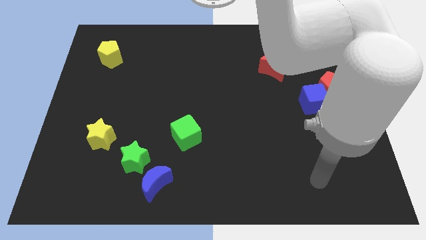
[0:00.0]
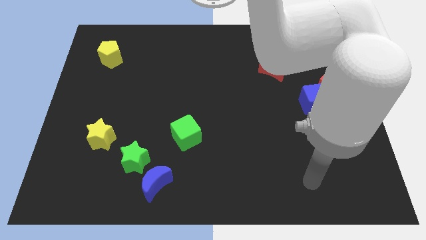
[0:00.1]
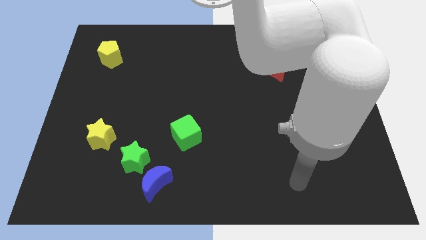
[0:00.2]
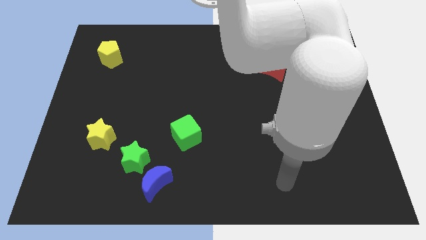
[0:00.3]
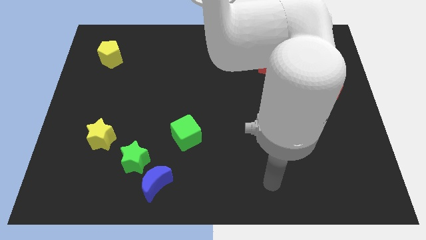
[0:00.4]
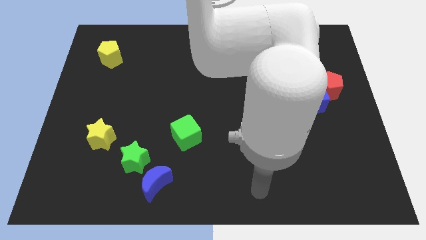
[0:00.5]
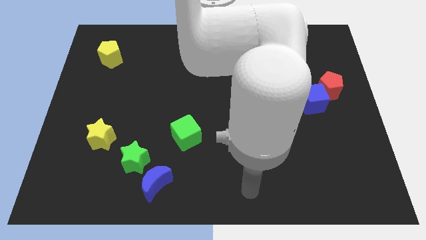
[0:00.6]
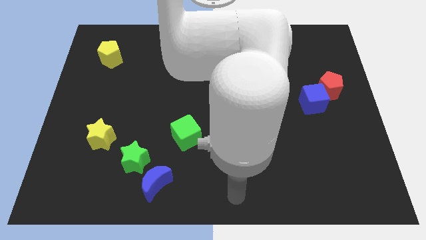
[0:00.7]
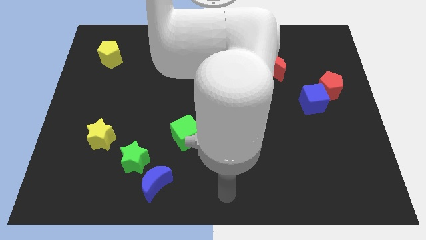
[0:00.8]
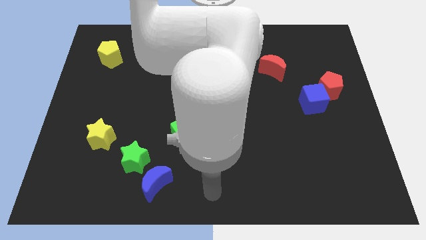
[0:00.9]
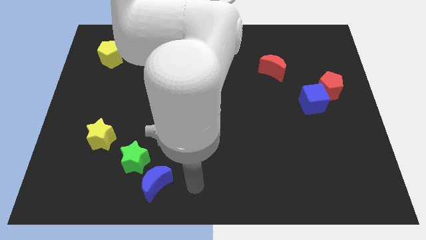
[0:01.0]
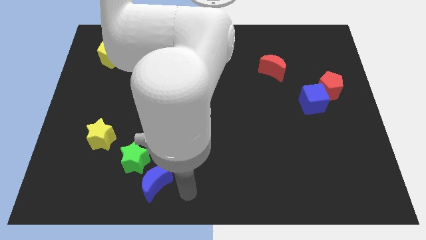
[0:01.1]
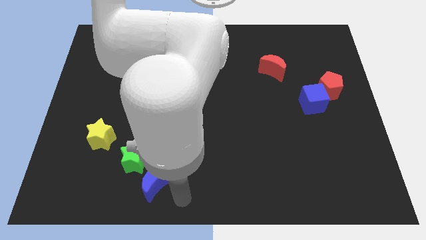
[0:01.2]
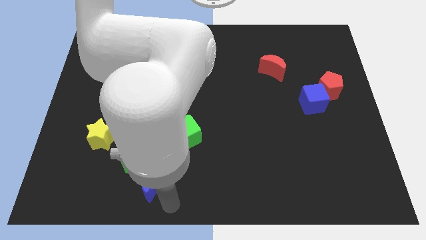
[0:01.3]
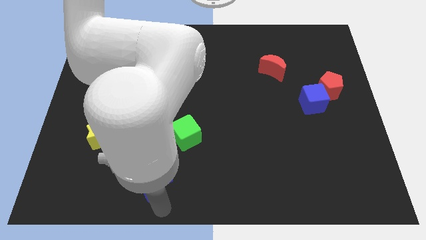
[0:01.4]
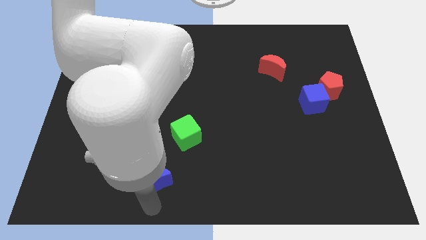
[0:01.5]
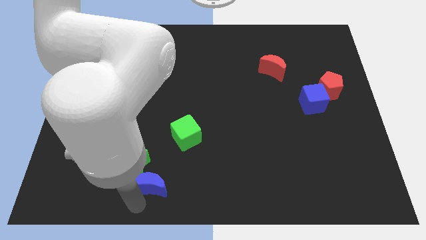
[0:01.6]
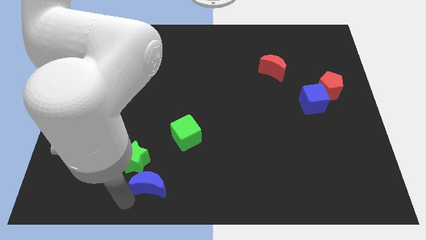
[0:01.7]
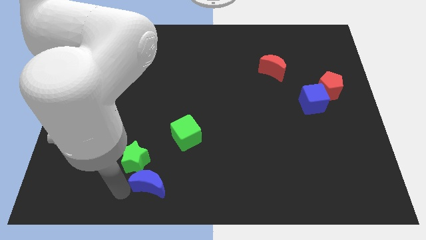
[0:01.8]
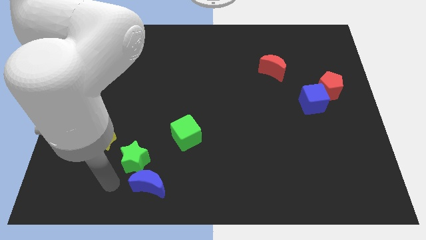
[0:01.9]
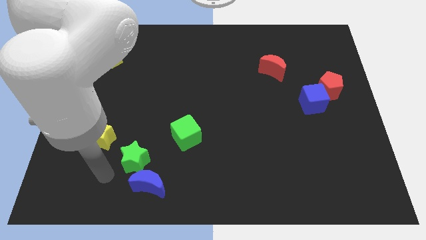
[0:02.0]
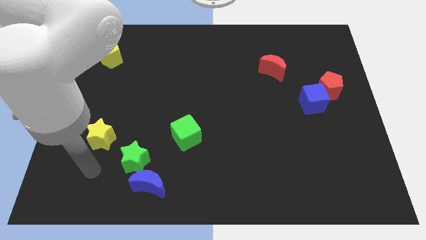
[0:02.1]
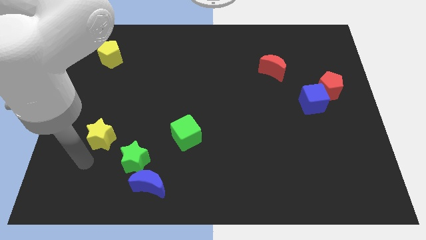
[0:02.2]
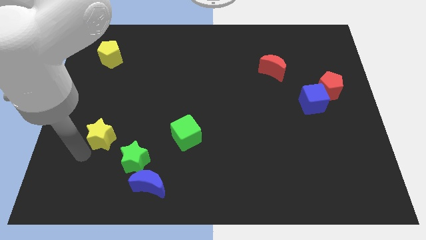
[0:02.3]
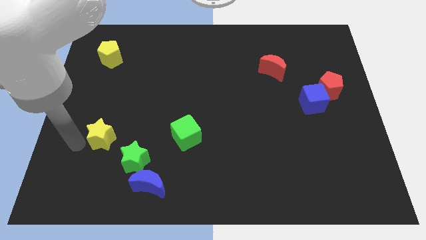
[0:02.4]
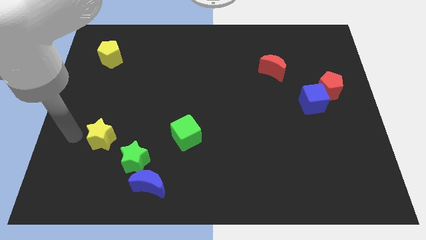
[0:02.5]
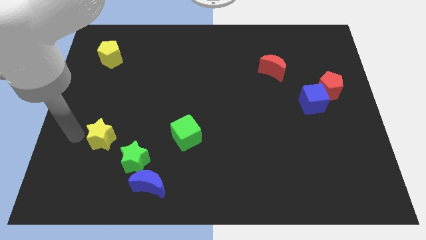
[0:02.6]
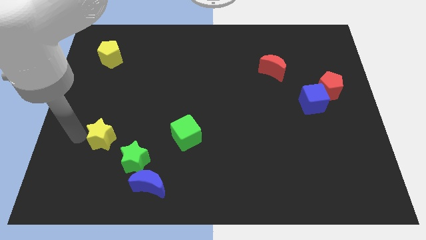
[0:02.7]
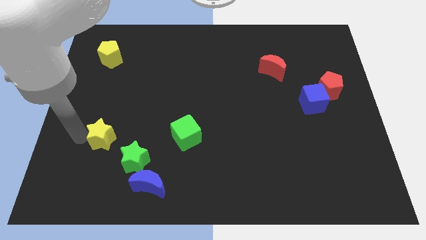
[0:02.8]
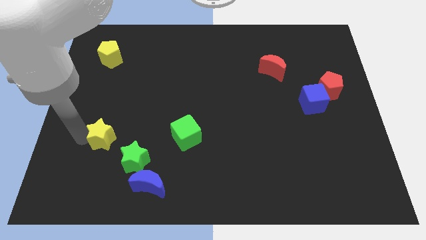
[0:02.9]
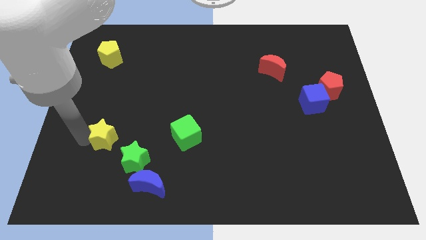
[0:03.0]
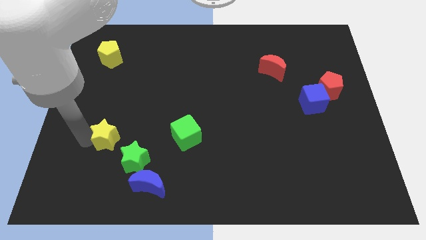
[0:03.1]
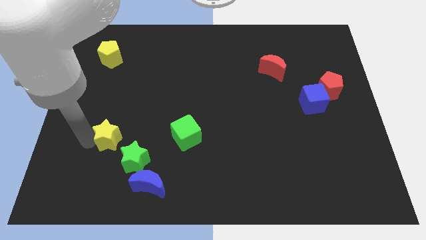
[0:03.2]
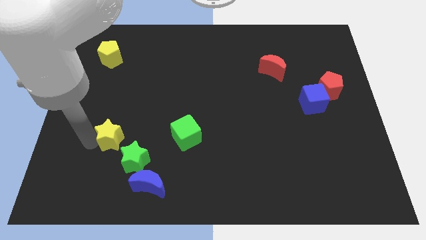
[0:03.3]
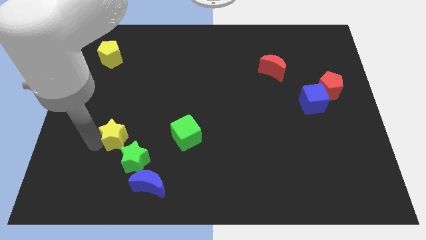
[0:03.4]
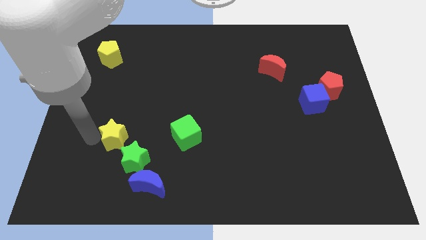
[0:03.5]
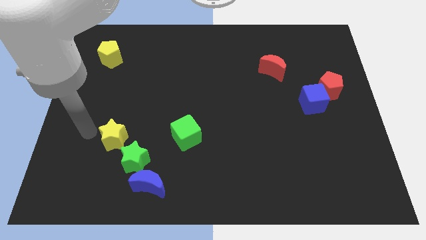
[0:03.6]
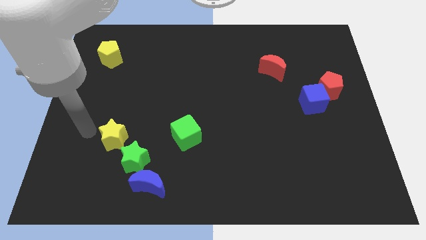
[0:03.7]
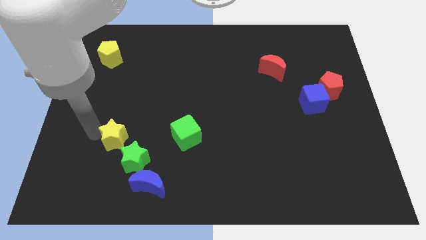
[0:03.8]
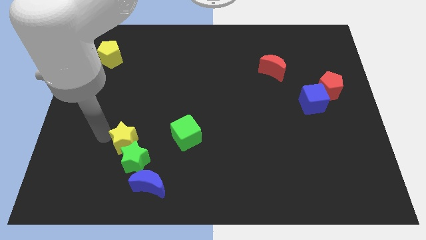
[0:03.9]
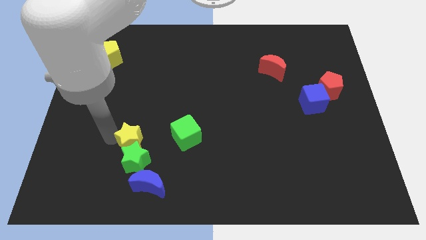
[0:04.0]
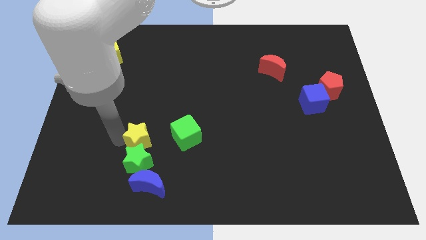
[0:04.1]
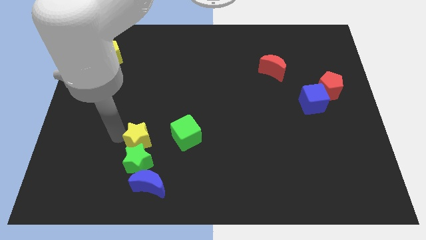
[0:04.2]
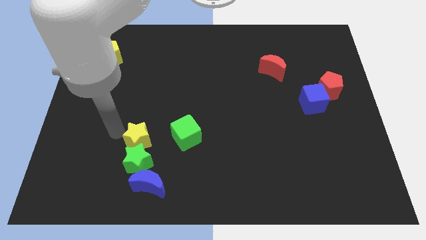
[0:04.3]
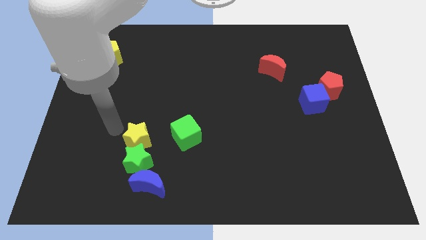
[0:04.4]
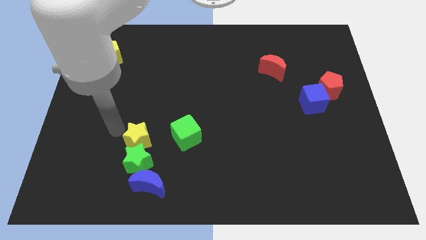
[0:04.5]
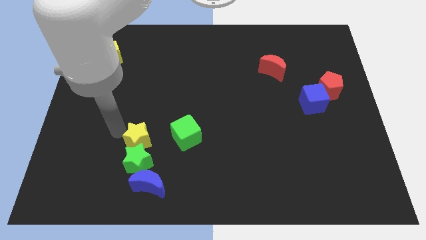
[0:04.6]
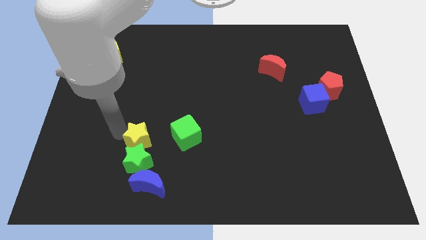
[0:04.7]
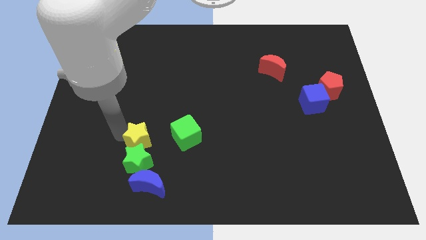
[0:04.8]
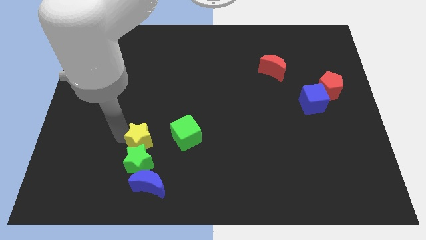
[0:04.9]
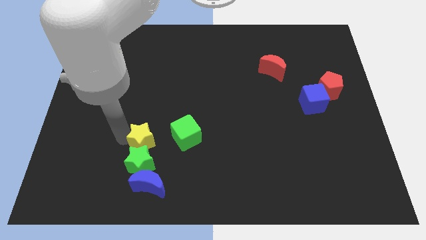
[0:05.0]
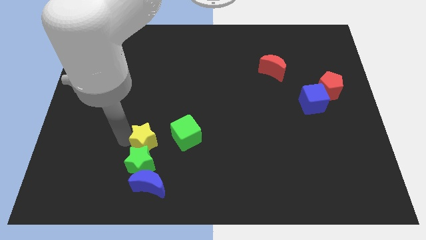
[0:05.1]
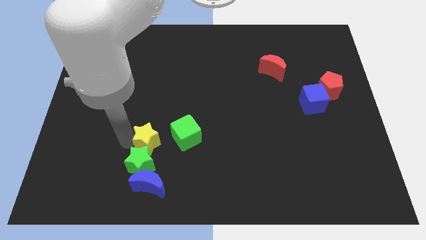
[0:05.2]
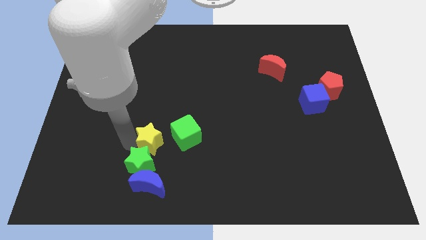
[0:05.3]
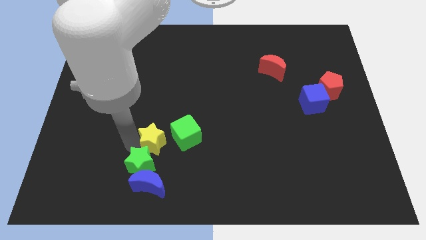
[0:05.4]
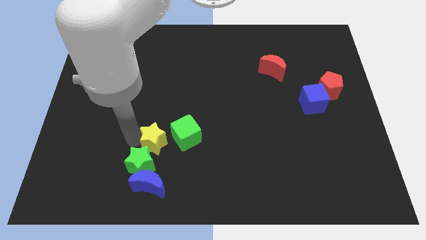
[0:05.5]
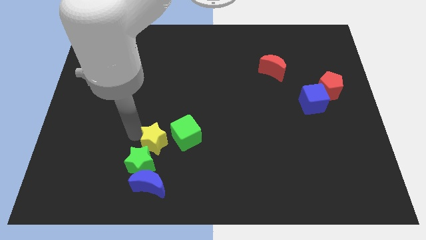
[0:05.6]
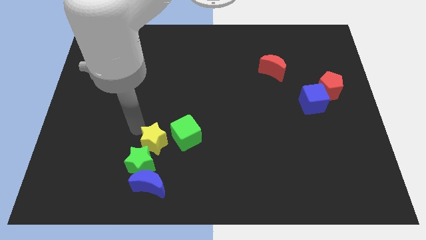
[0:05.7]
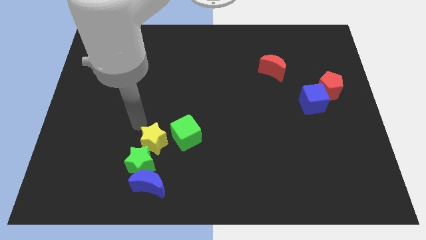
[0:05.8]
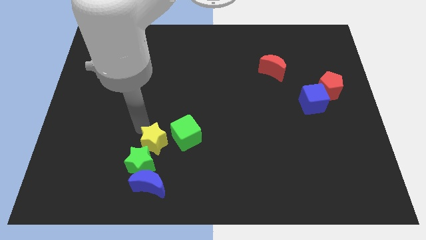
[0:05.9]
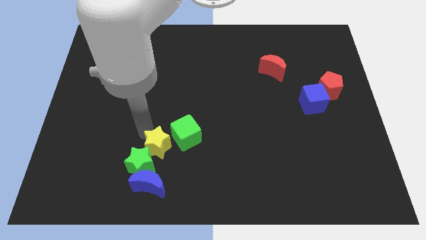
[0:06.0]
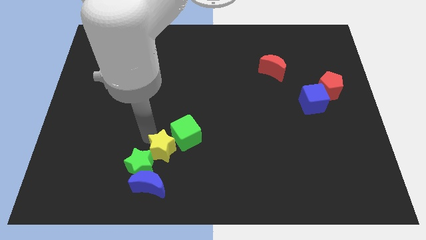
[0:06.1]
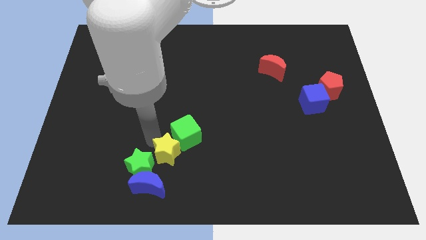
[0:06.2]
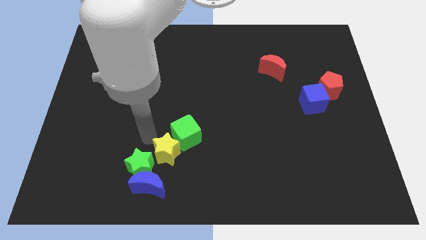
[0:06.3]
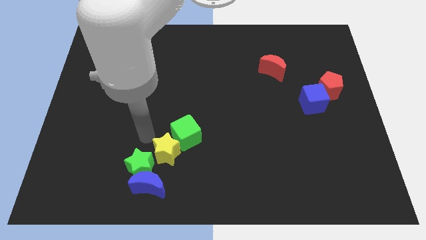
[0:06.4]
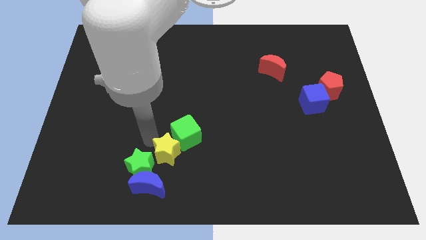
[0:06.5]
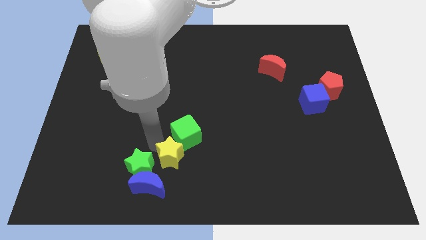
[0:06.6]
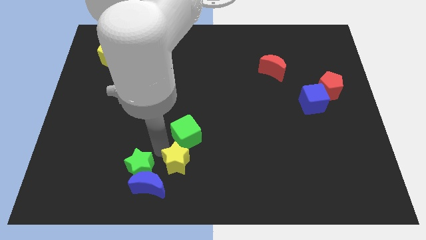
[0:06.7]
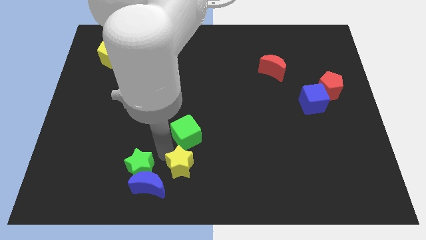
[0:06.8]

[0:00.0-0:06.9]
move the yellow star to the right side of the blue moon
